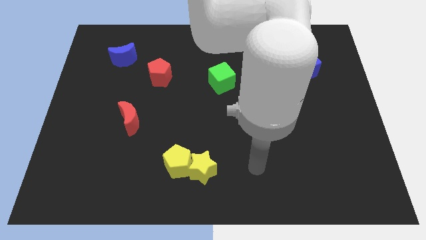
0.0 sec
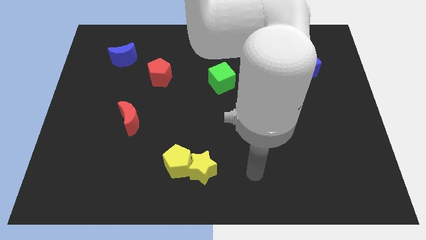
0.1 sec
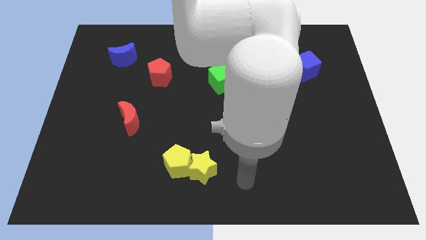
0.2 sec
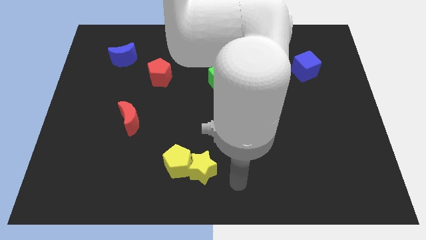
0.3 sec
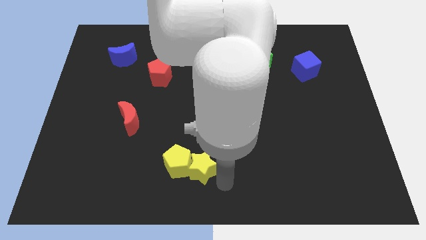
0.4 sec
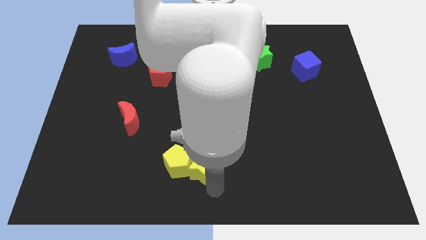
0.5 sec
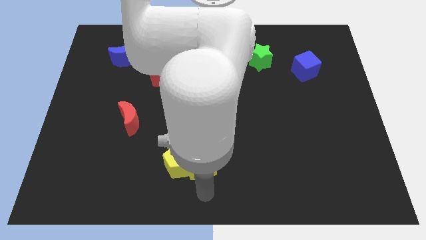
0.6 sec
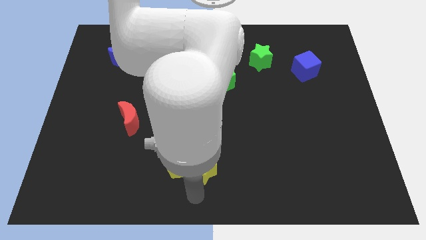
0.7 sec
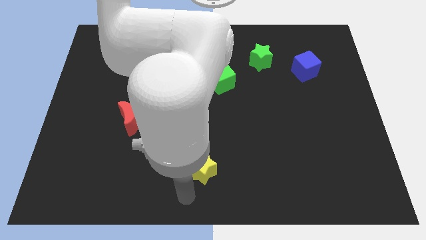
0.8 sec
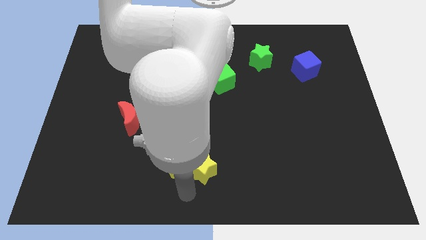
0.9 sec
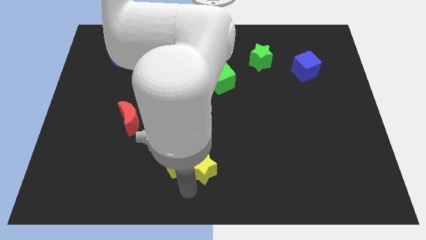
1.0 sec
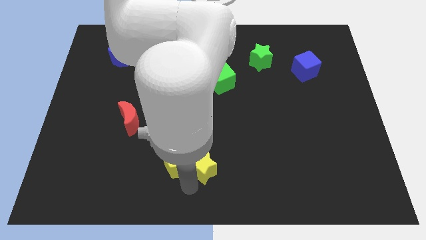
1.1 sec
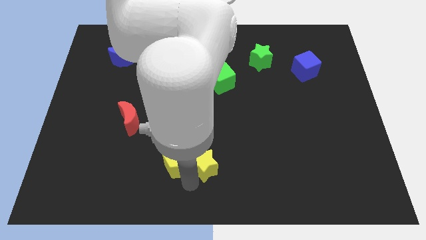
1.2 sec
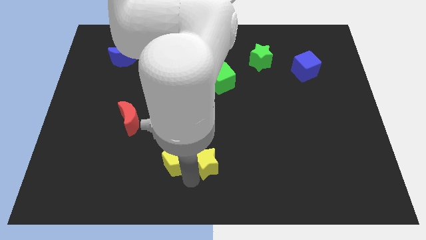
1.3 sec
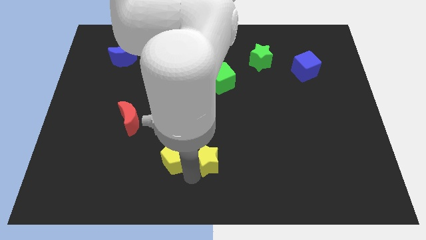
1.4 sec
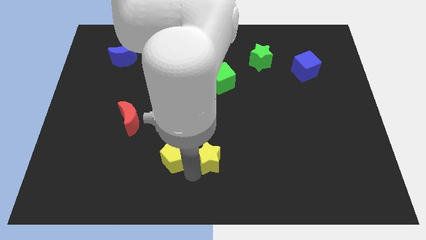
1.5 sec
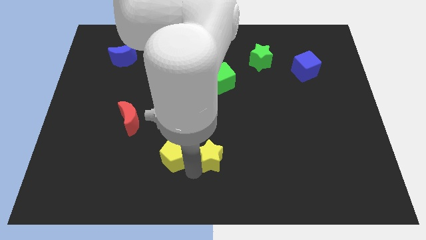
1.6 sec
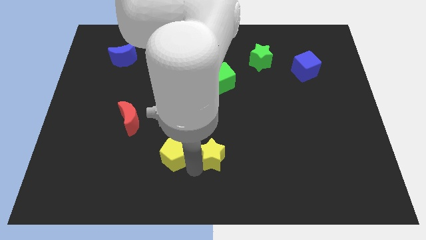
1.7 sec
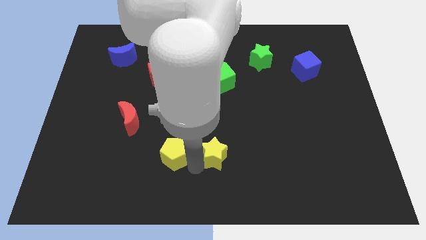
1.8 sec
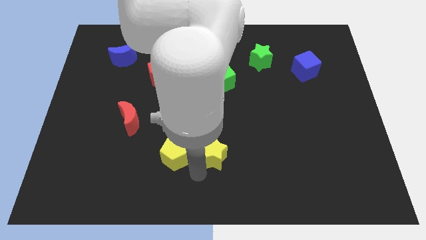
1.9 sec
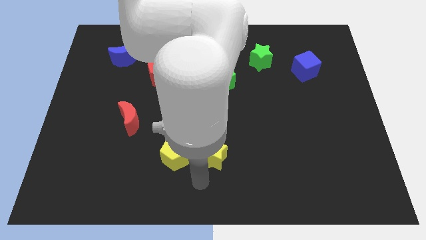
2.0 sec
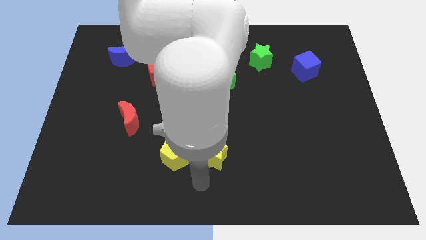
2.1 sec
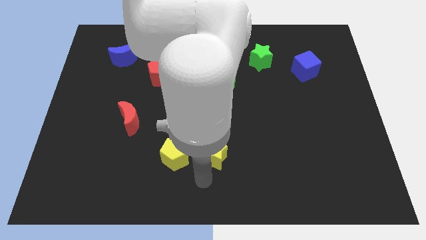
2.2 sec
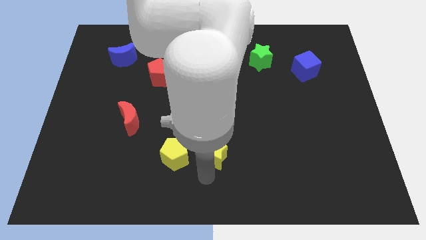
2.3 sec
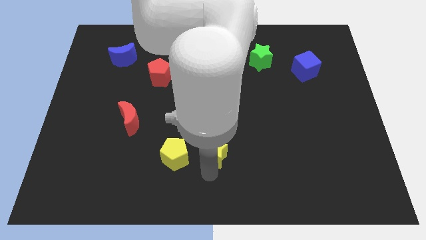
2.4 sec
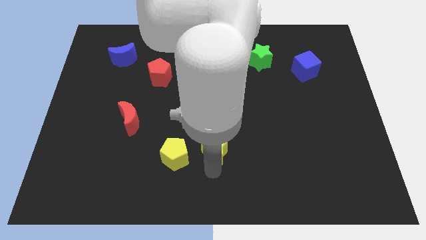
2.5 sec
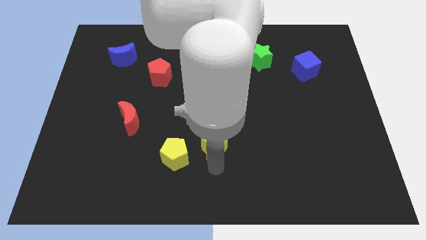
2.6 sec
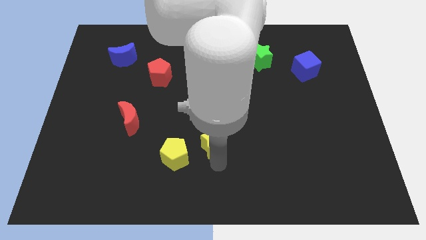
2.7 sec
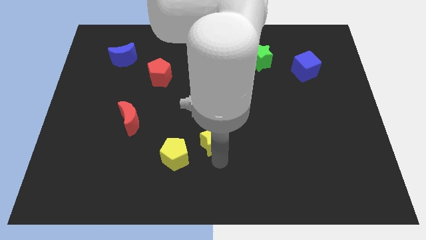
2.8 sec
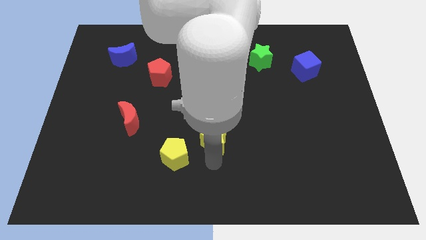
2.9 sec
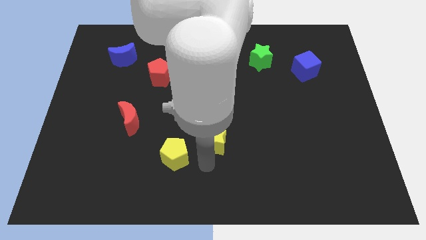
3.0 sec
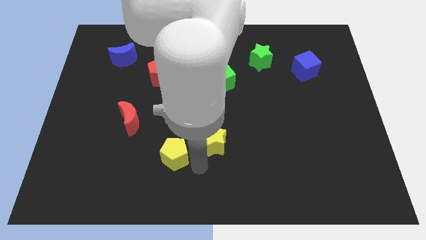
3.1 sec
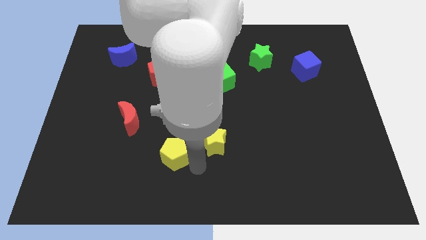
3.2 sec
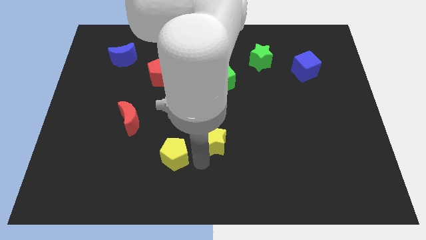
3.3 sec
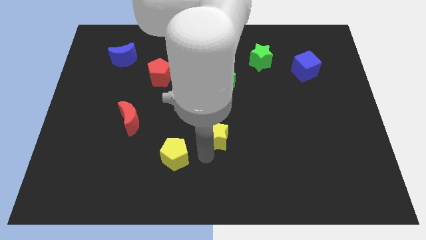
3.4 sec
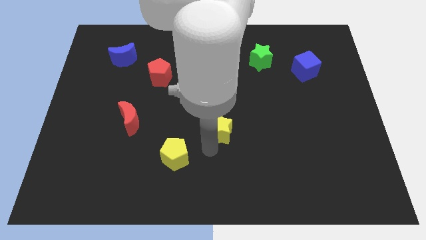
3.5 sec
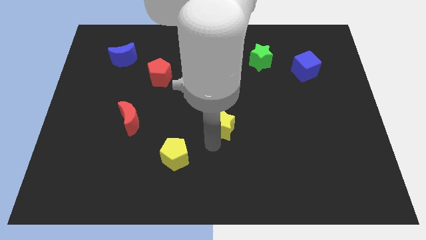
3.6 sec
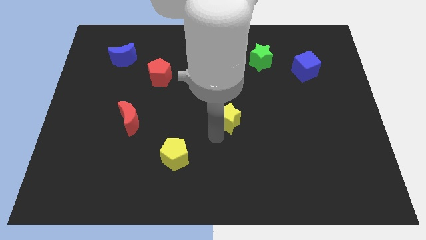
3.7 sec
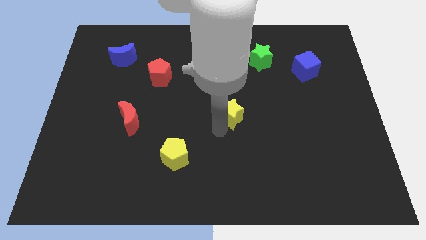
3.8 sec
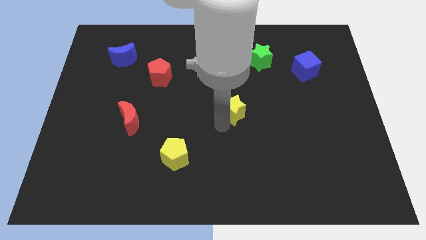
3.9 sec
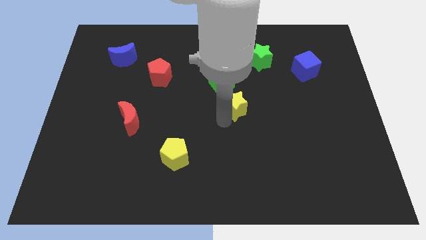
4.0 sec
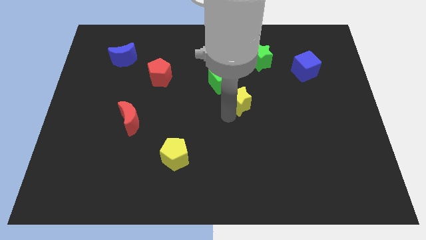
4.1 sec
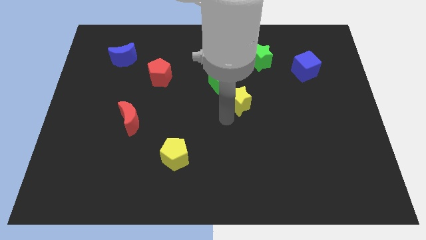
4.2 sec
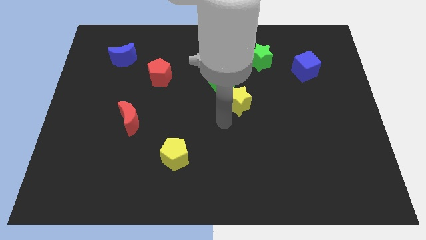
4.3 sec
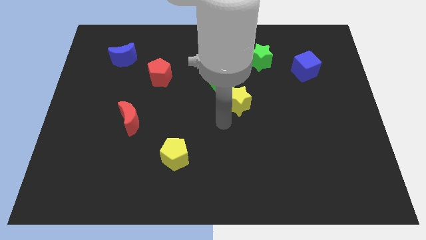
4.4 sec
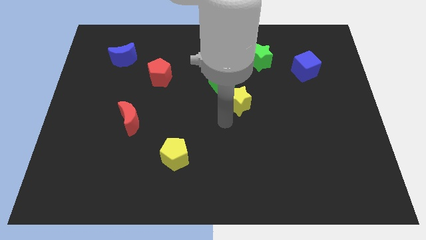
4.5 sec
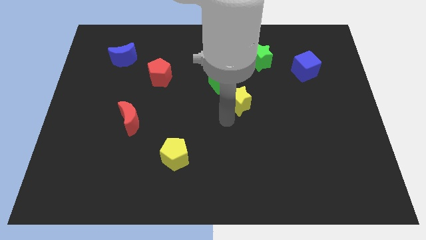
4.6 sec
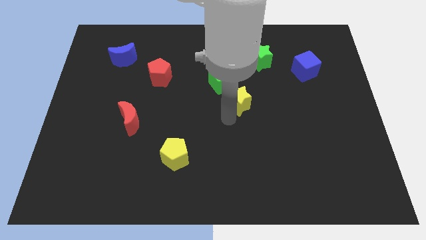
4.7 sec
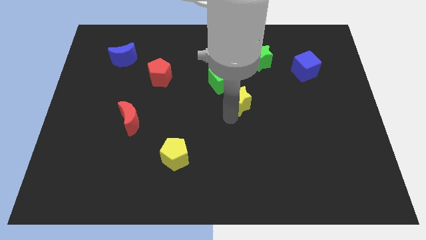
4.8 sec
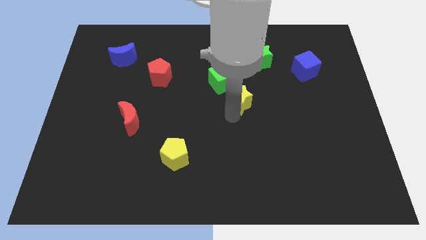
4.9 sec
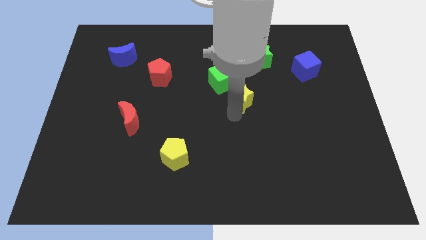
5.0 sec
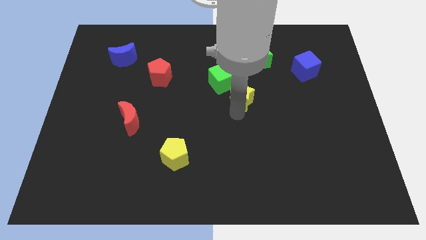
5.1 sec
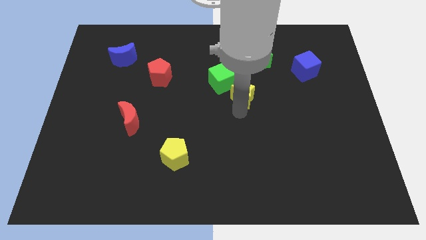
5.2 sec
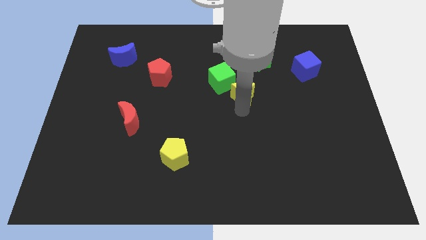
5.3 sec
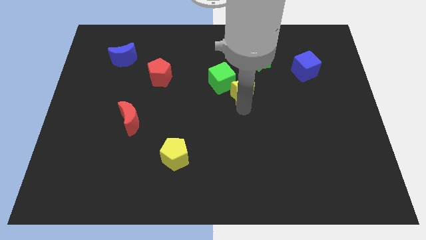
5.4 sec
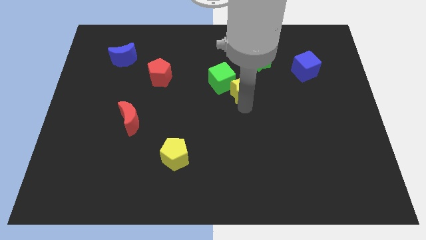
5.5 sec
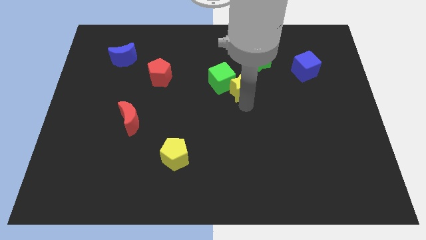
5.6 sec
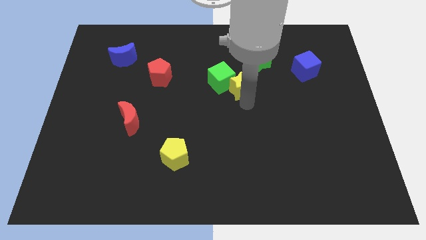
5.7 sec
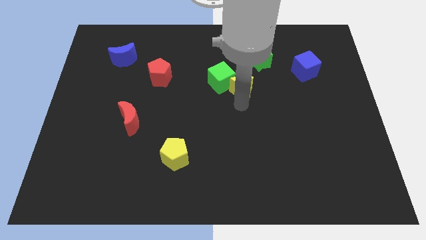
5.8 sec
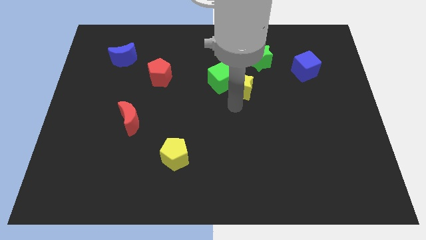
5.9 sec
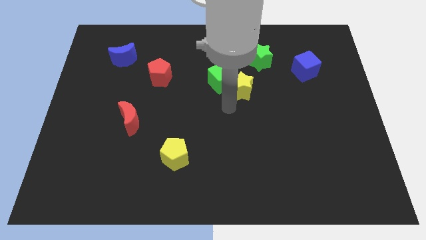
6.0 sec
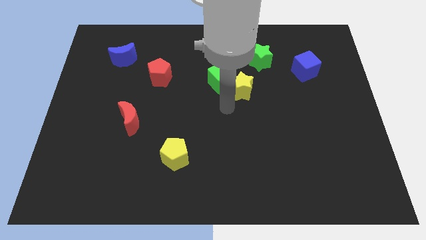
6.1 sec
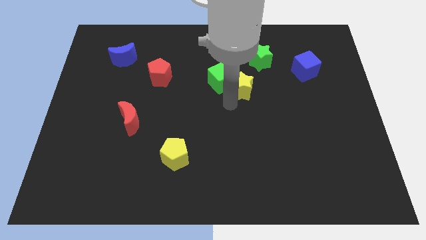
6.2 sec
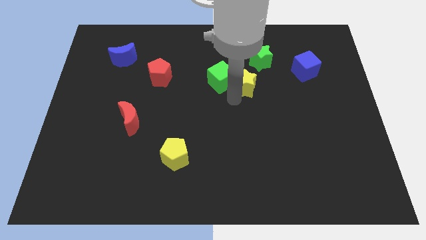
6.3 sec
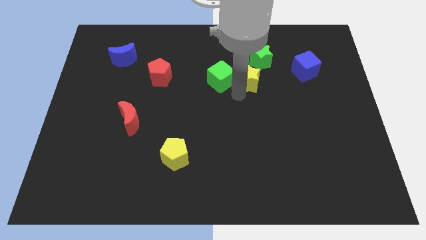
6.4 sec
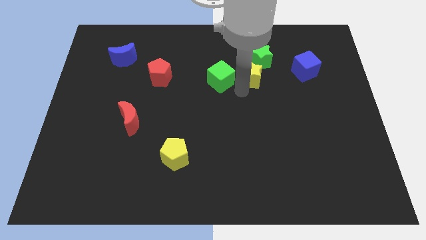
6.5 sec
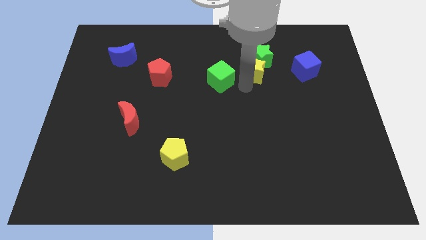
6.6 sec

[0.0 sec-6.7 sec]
push the yellow star towards the green star
